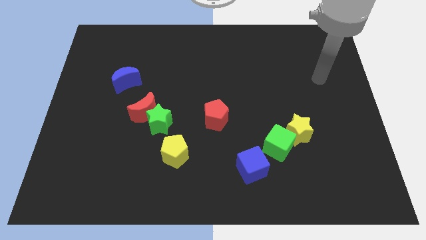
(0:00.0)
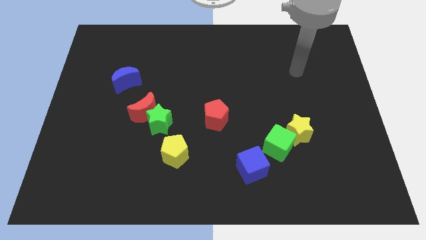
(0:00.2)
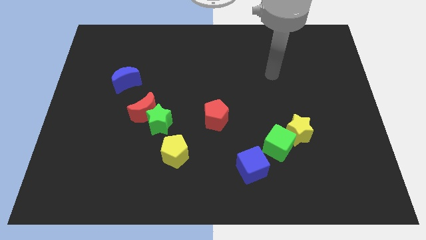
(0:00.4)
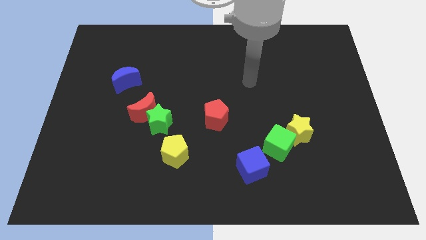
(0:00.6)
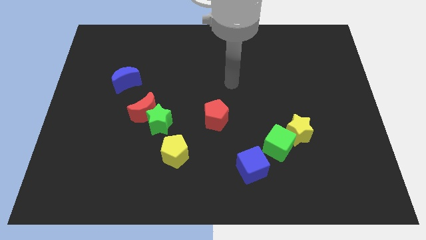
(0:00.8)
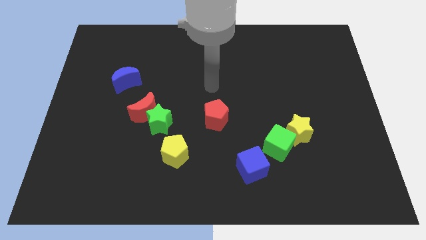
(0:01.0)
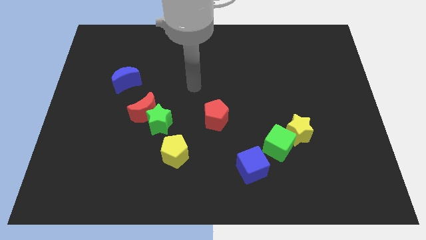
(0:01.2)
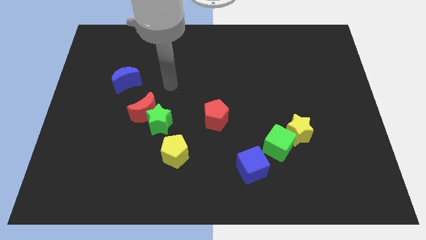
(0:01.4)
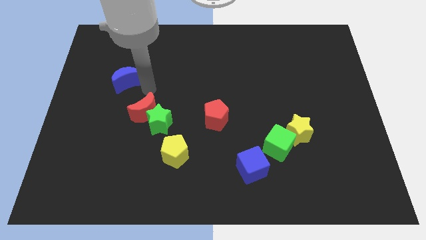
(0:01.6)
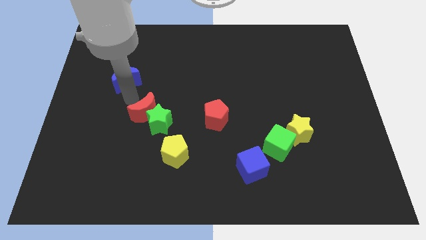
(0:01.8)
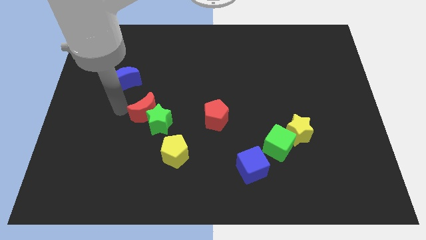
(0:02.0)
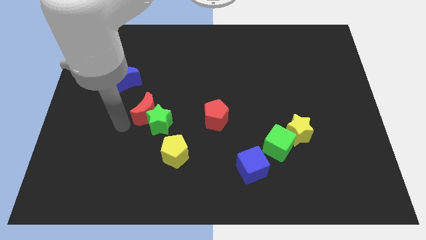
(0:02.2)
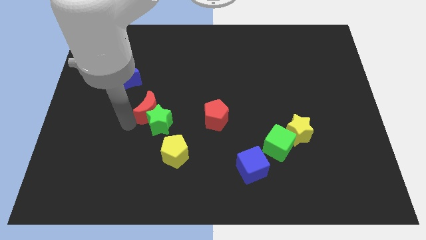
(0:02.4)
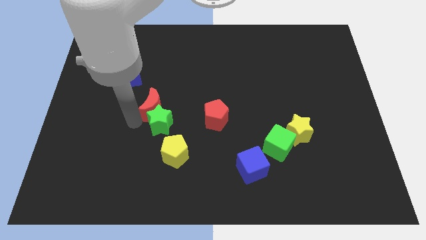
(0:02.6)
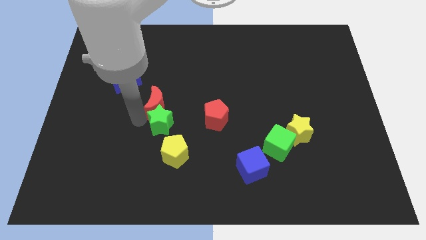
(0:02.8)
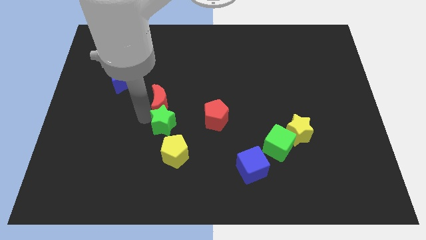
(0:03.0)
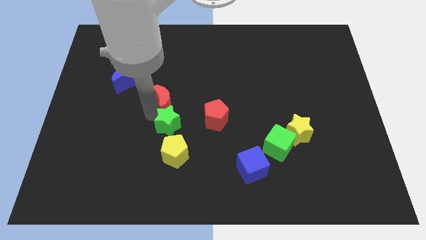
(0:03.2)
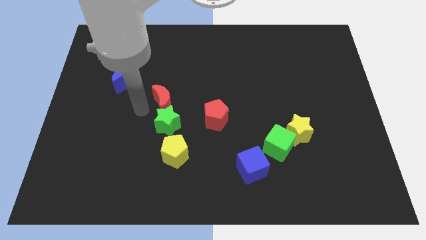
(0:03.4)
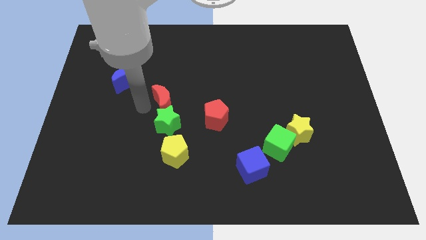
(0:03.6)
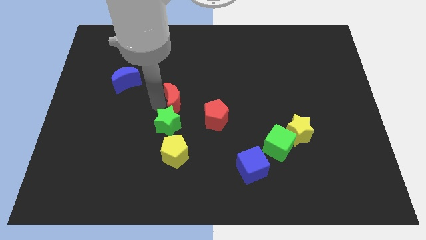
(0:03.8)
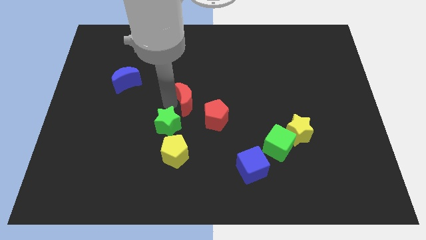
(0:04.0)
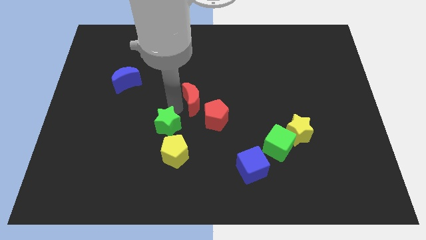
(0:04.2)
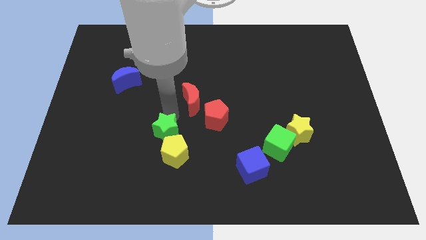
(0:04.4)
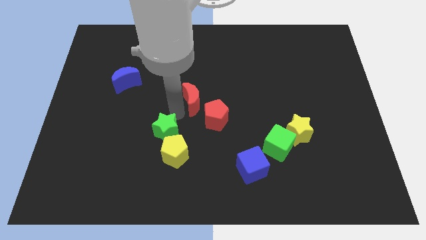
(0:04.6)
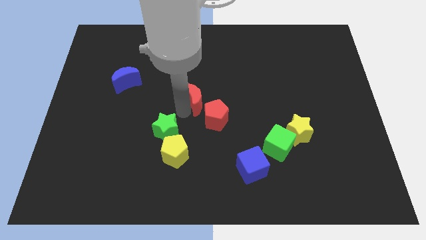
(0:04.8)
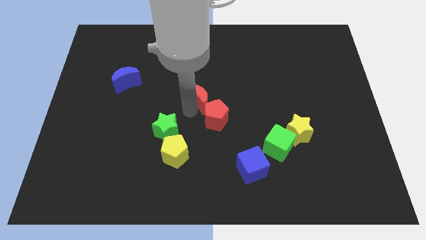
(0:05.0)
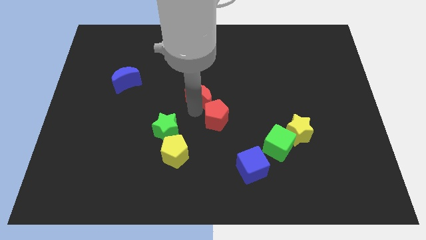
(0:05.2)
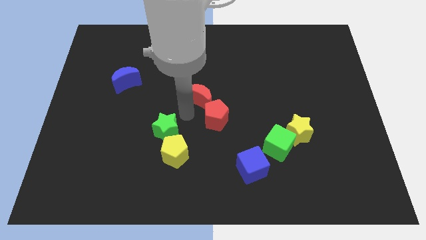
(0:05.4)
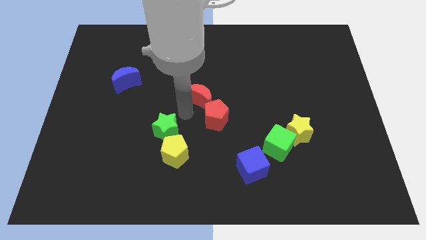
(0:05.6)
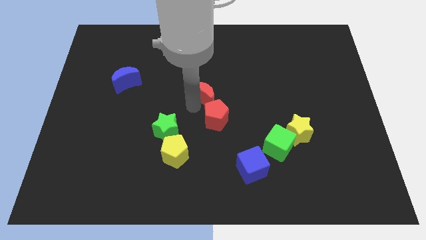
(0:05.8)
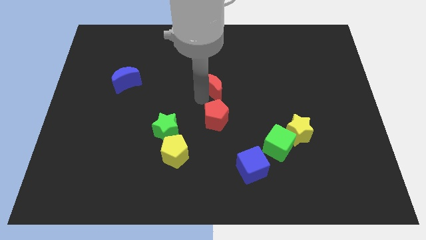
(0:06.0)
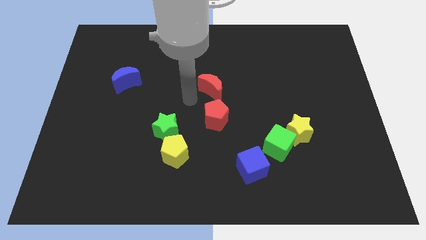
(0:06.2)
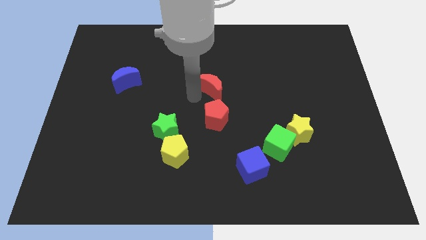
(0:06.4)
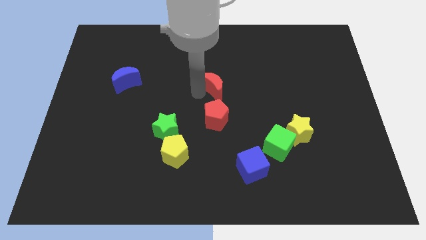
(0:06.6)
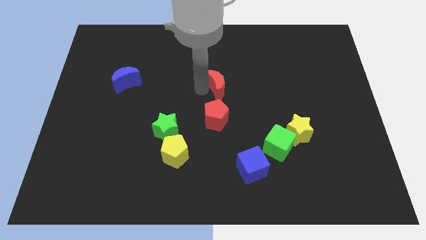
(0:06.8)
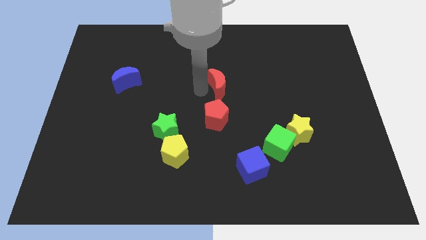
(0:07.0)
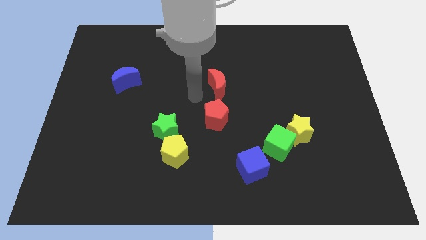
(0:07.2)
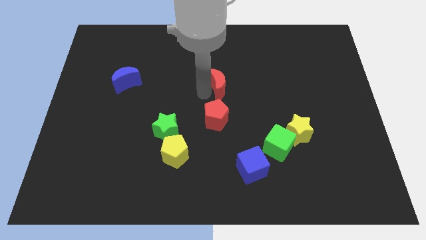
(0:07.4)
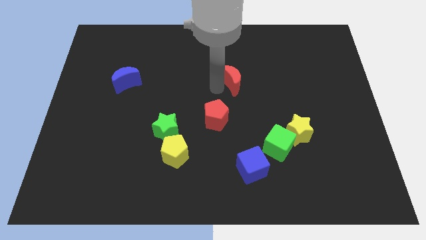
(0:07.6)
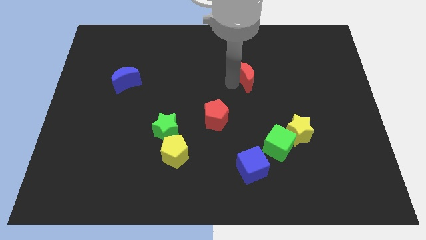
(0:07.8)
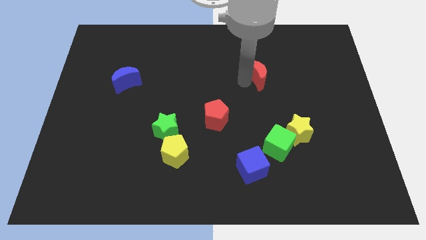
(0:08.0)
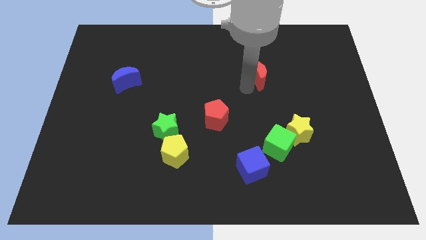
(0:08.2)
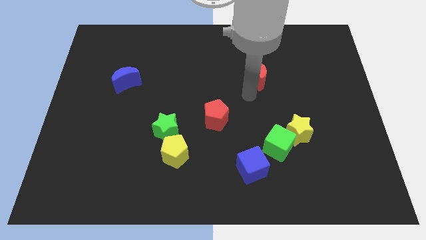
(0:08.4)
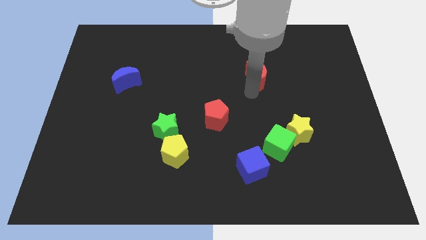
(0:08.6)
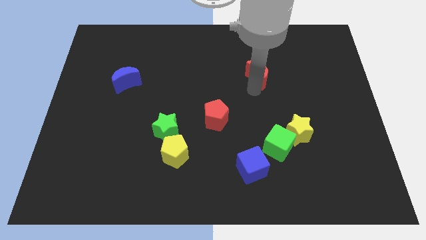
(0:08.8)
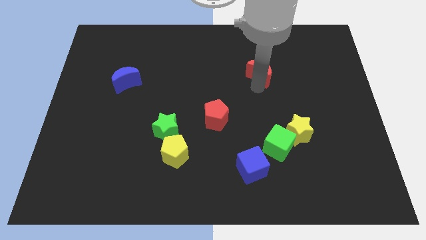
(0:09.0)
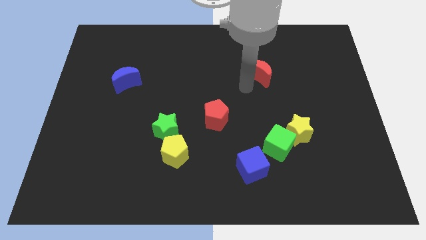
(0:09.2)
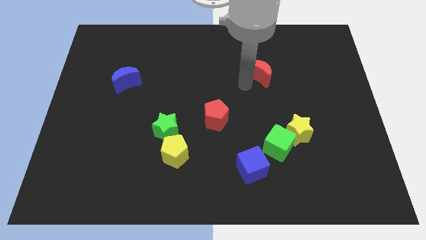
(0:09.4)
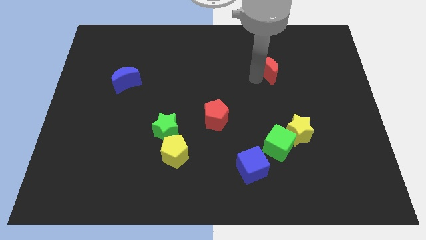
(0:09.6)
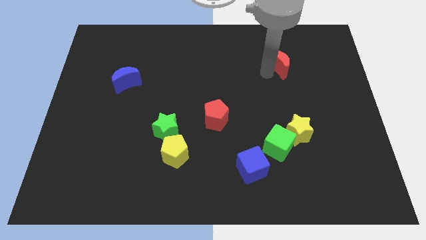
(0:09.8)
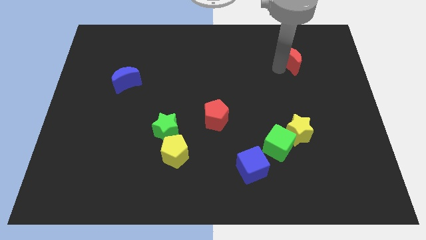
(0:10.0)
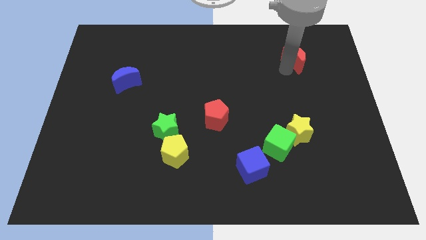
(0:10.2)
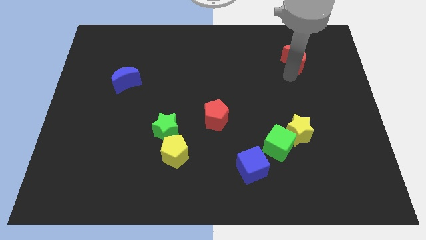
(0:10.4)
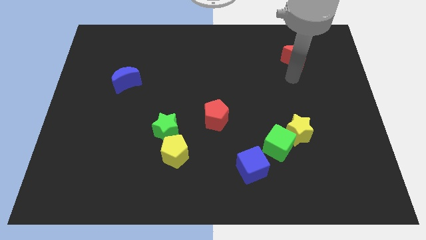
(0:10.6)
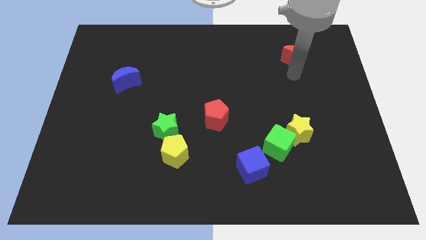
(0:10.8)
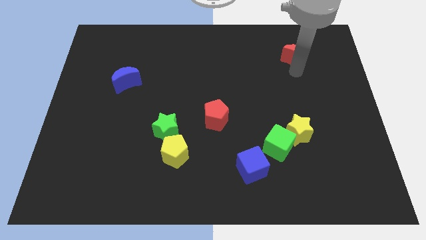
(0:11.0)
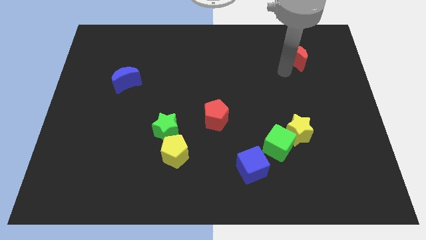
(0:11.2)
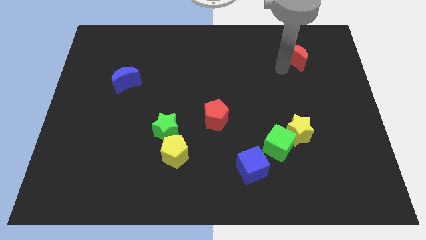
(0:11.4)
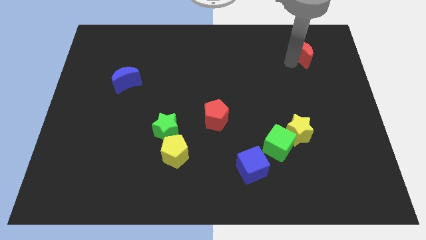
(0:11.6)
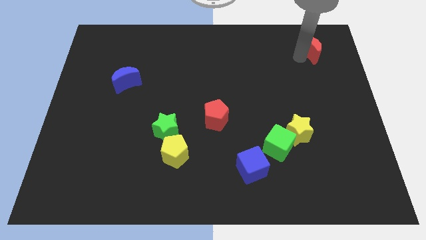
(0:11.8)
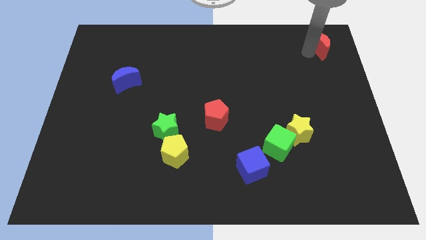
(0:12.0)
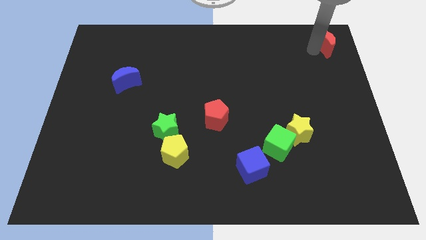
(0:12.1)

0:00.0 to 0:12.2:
slide the red moon to the top right of the board
